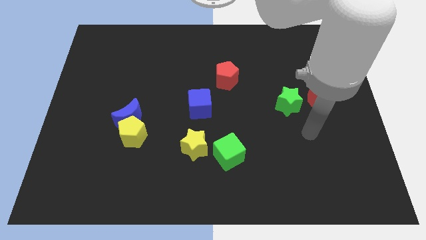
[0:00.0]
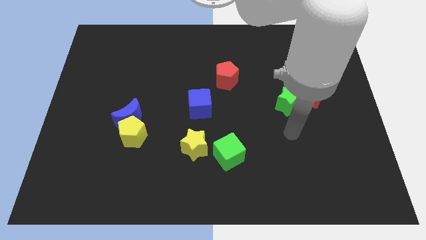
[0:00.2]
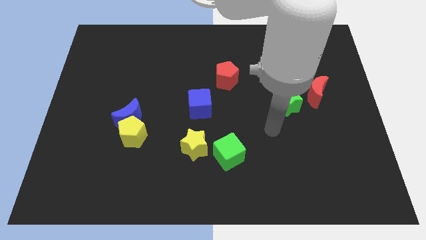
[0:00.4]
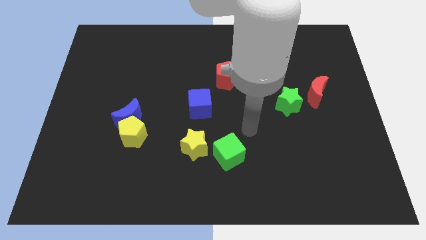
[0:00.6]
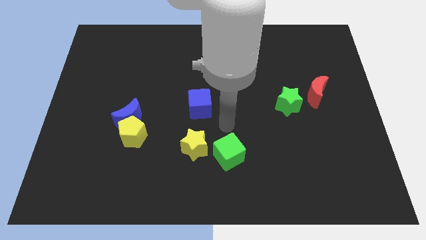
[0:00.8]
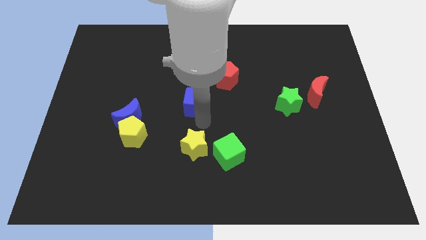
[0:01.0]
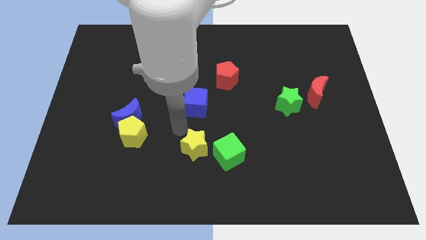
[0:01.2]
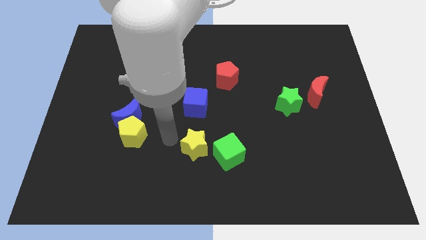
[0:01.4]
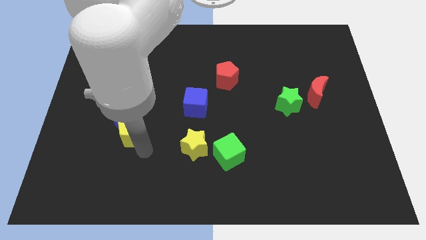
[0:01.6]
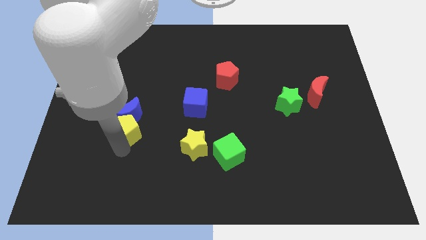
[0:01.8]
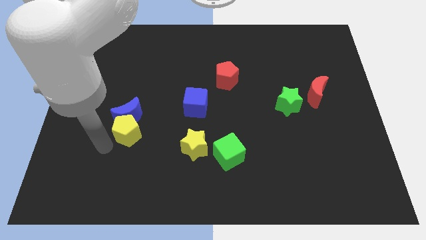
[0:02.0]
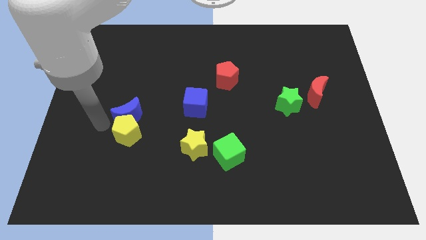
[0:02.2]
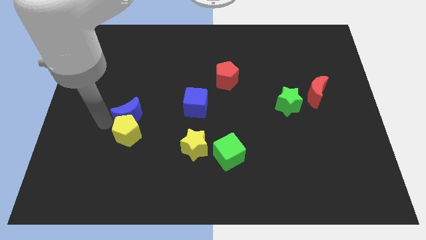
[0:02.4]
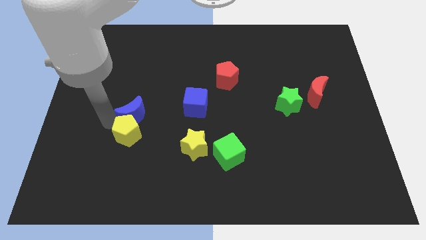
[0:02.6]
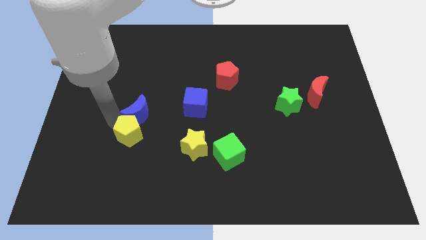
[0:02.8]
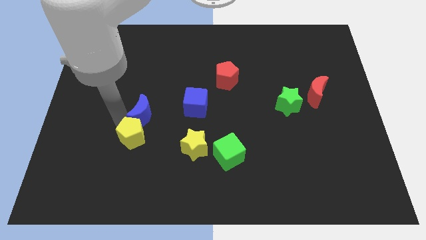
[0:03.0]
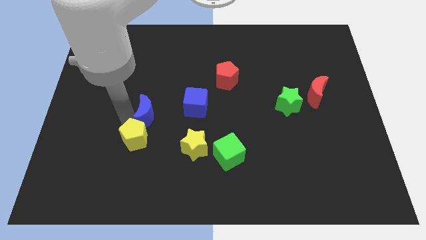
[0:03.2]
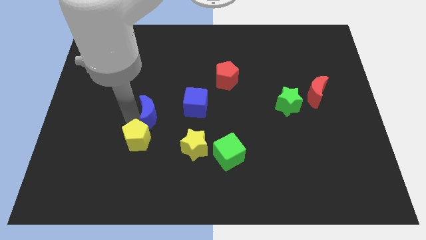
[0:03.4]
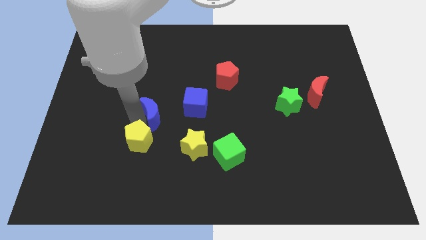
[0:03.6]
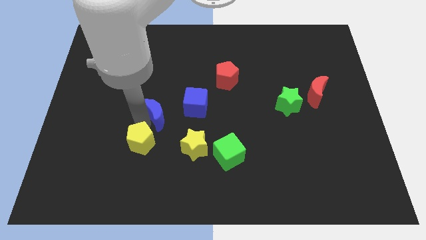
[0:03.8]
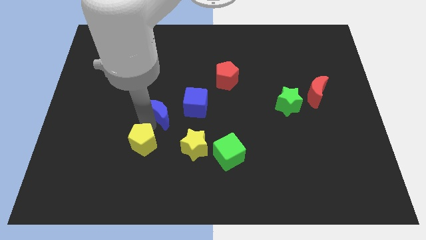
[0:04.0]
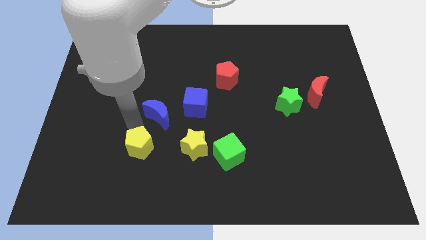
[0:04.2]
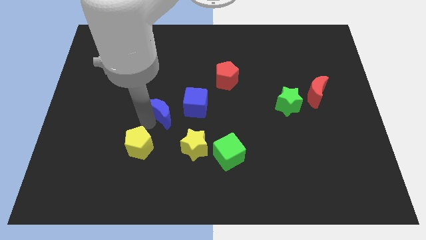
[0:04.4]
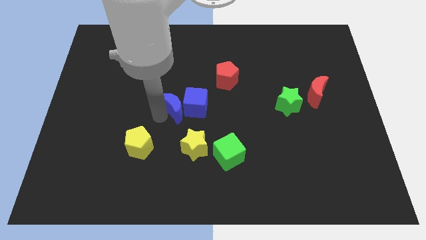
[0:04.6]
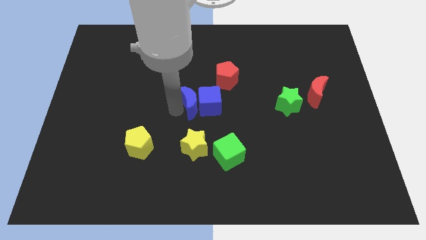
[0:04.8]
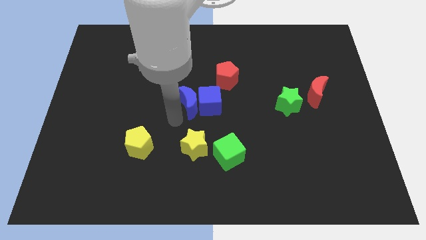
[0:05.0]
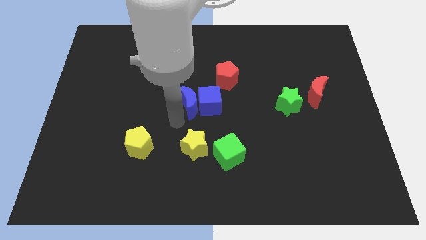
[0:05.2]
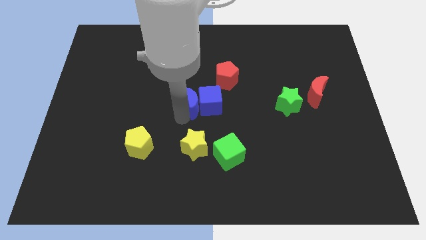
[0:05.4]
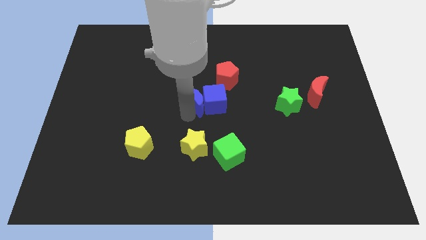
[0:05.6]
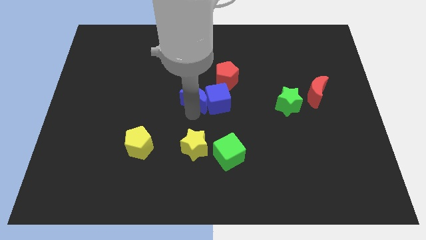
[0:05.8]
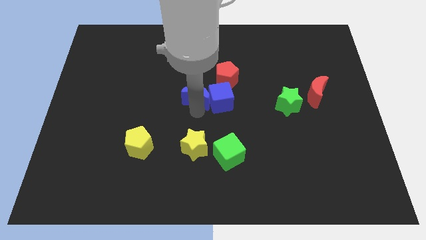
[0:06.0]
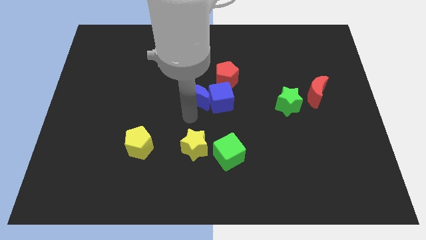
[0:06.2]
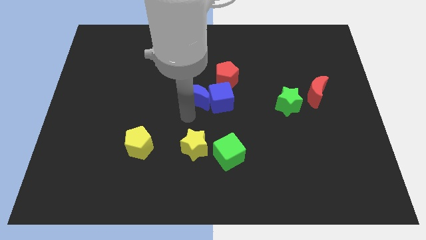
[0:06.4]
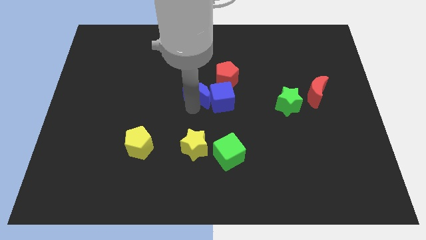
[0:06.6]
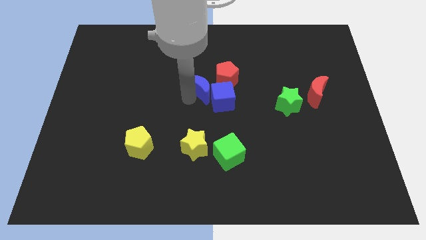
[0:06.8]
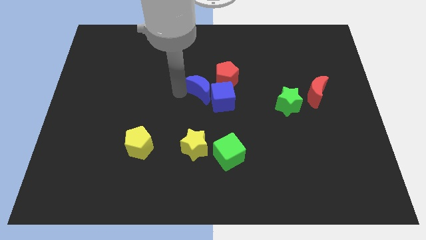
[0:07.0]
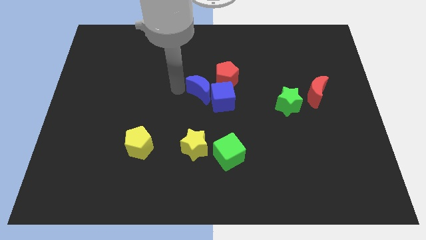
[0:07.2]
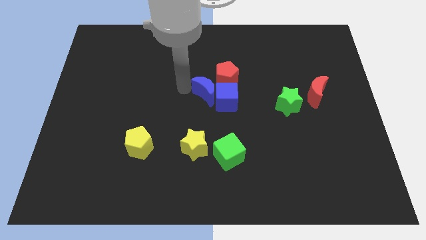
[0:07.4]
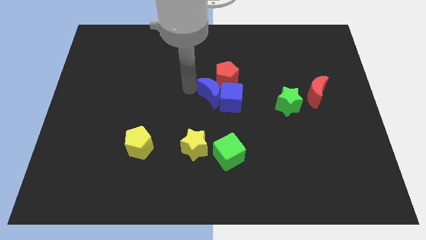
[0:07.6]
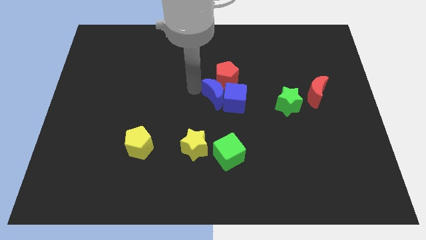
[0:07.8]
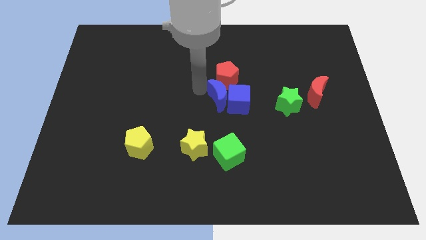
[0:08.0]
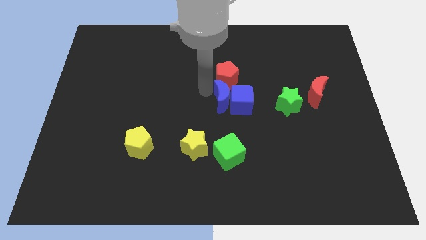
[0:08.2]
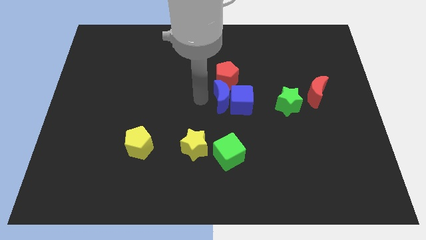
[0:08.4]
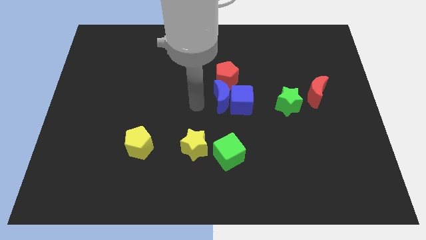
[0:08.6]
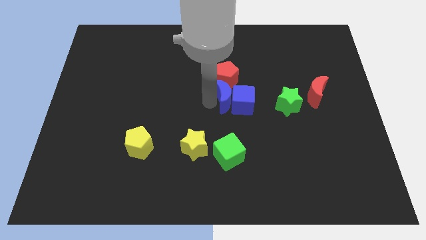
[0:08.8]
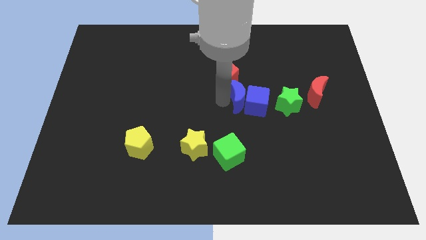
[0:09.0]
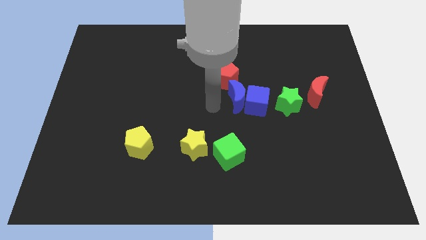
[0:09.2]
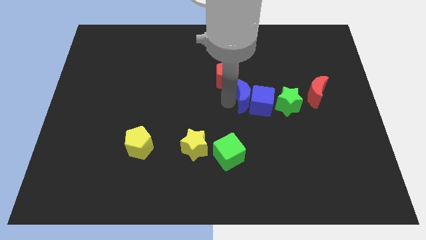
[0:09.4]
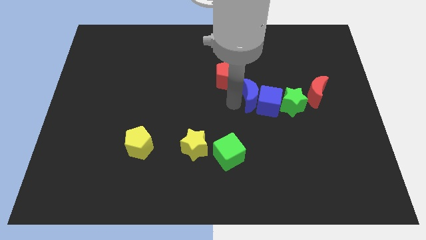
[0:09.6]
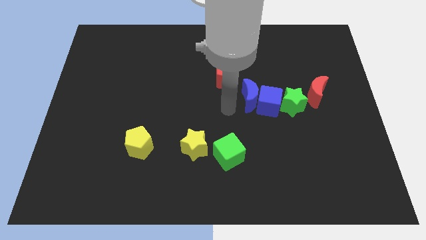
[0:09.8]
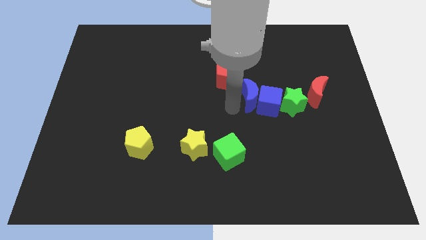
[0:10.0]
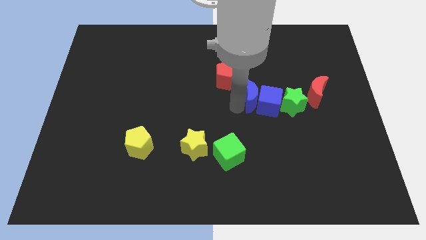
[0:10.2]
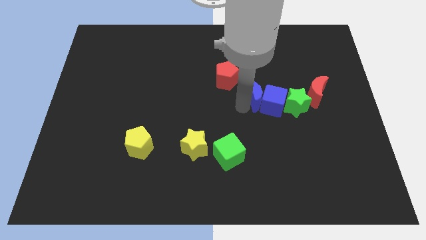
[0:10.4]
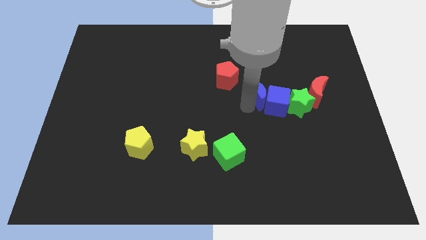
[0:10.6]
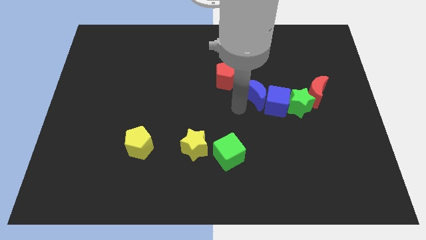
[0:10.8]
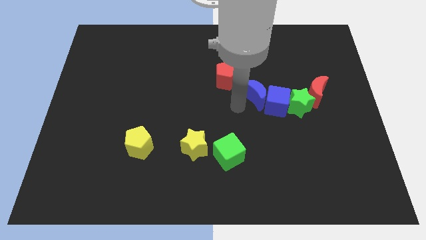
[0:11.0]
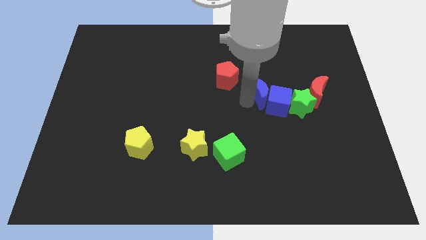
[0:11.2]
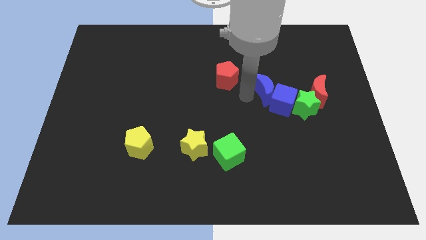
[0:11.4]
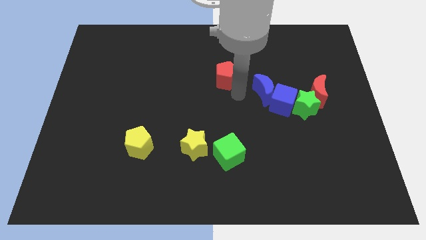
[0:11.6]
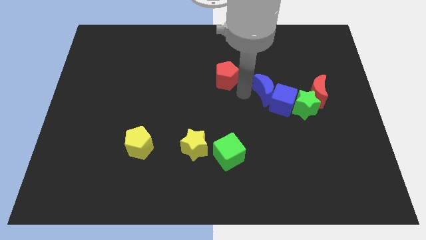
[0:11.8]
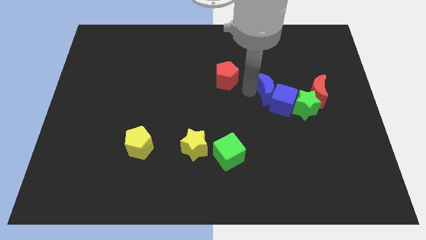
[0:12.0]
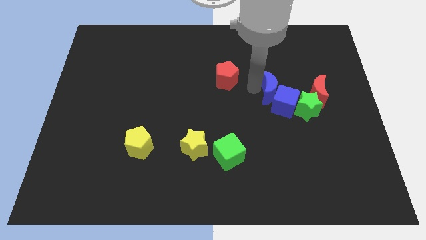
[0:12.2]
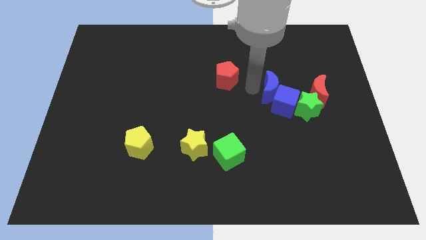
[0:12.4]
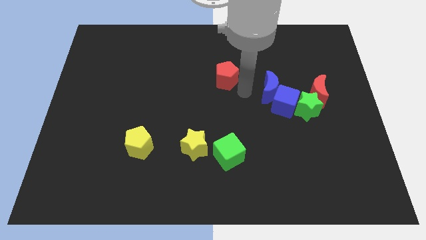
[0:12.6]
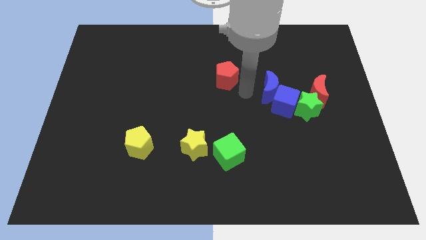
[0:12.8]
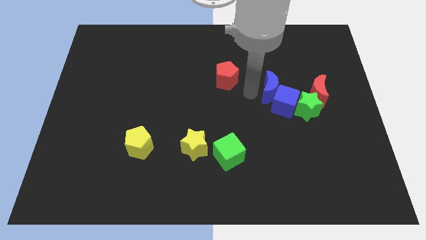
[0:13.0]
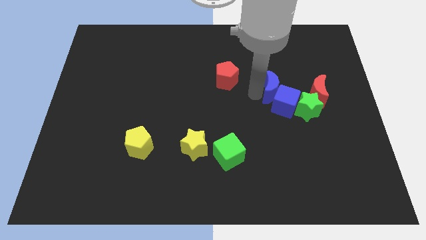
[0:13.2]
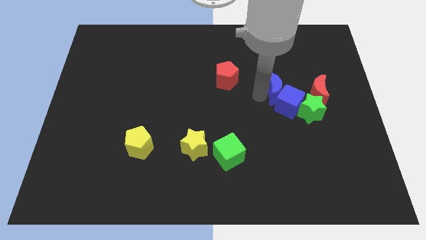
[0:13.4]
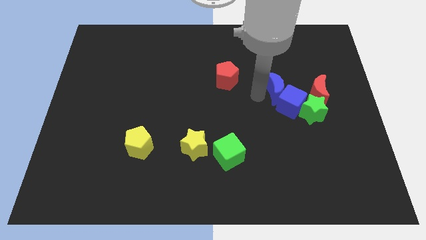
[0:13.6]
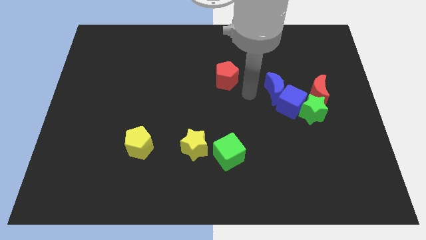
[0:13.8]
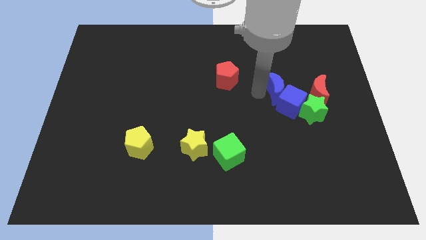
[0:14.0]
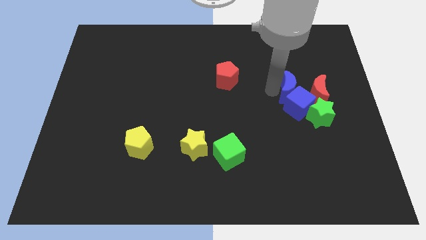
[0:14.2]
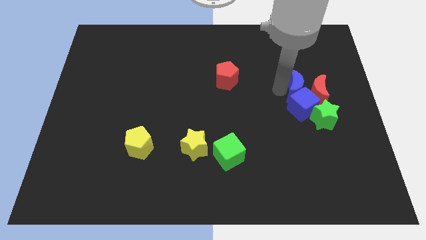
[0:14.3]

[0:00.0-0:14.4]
push the blue moon next to the red moon
